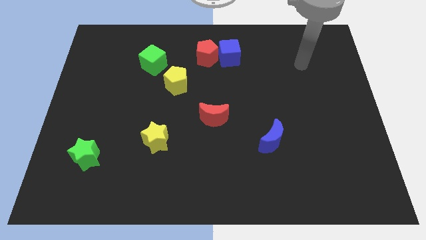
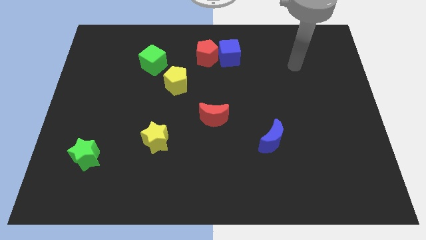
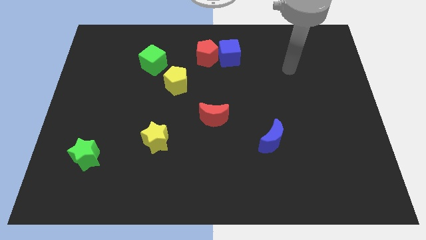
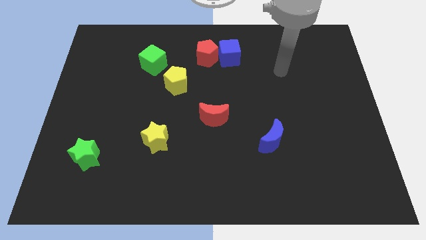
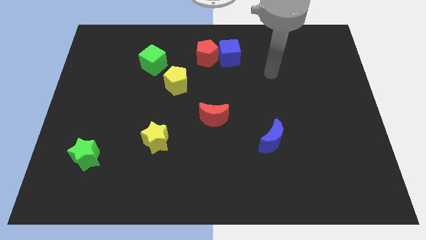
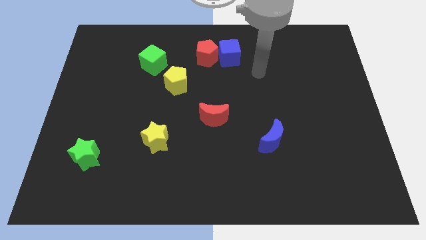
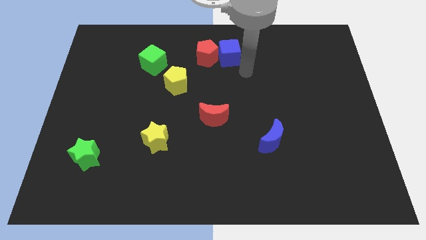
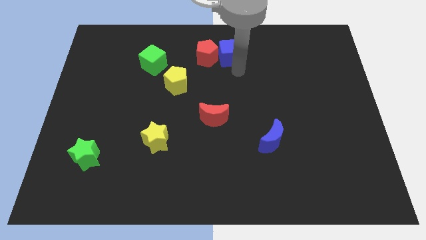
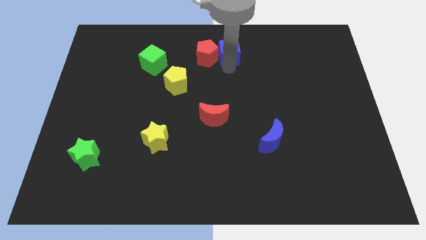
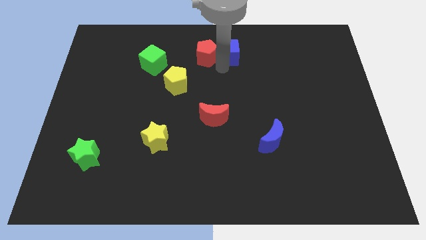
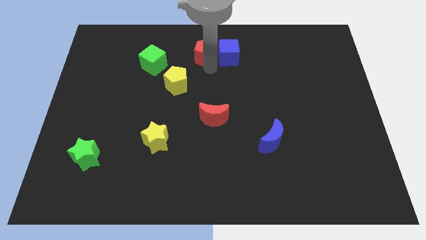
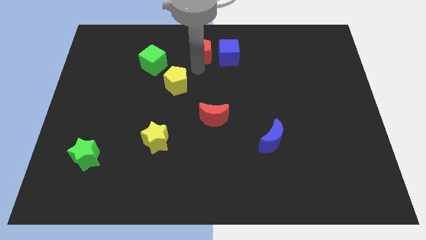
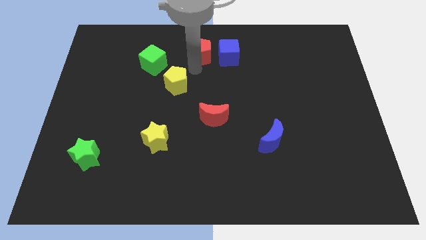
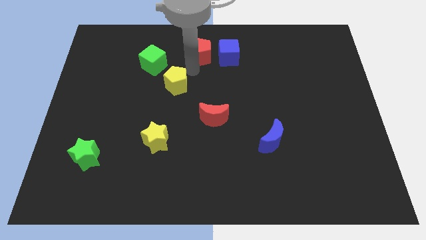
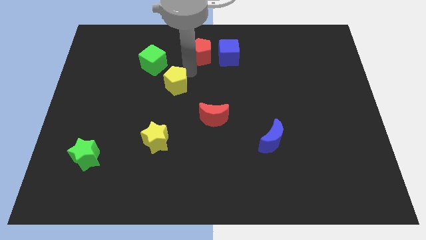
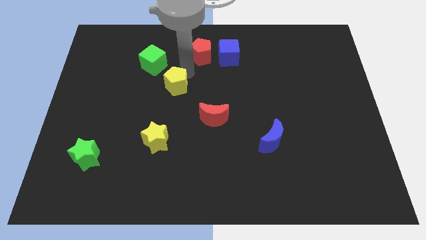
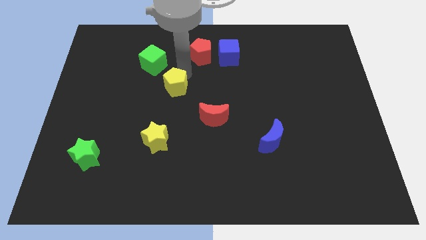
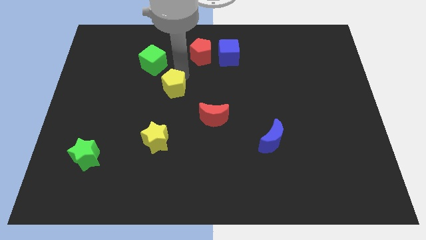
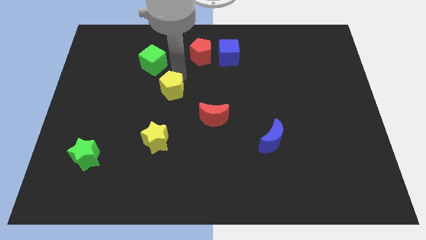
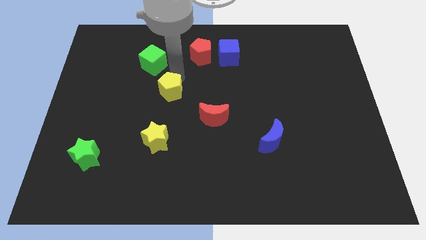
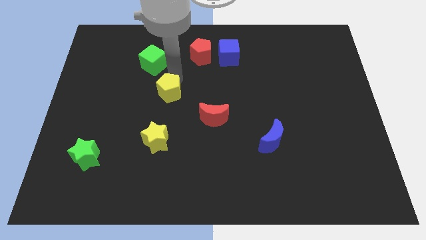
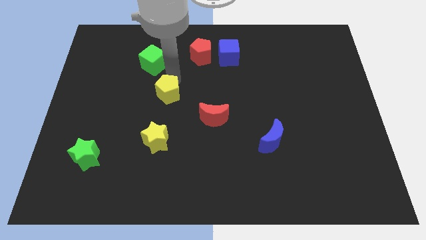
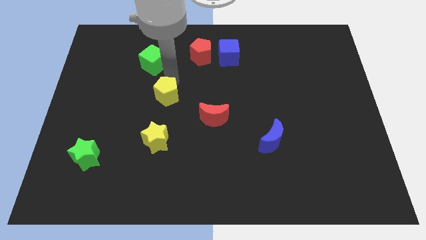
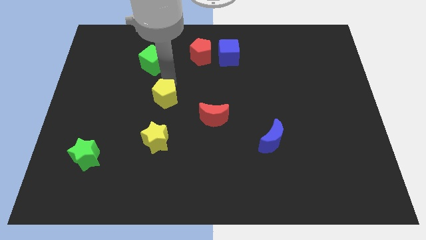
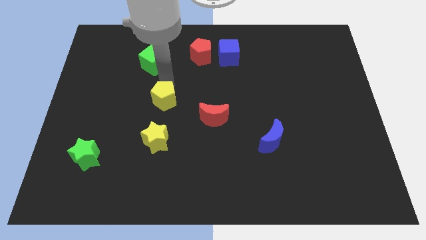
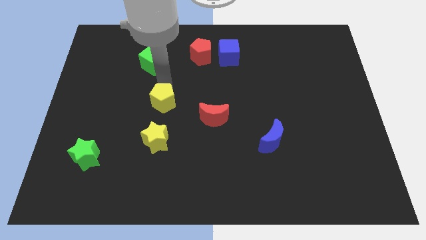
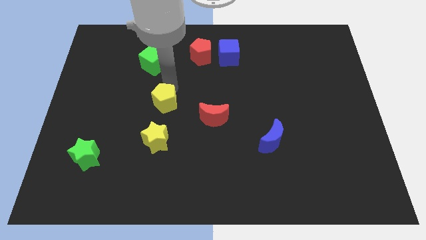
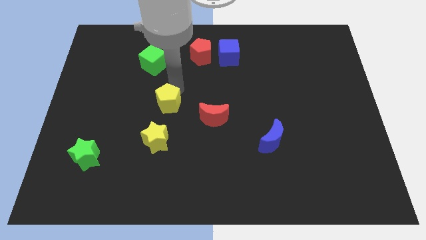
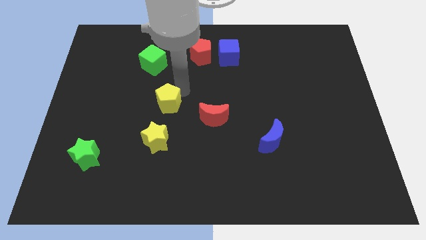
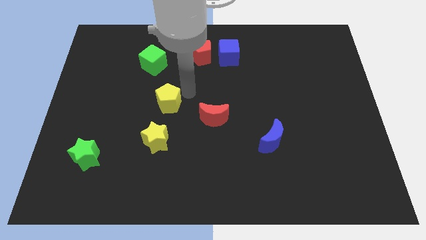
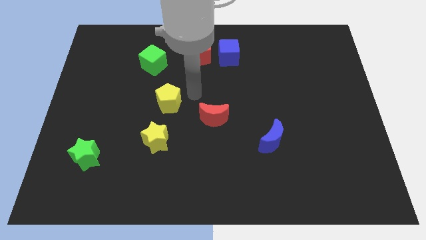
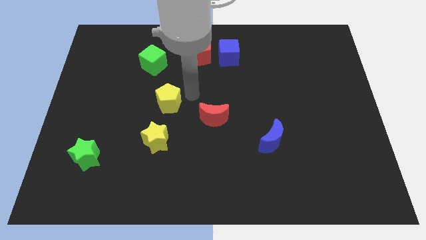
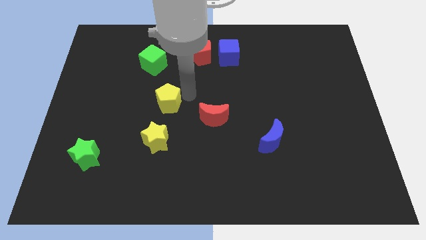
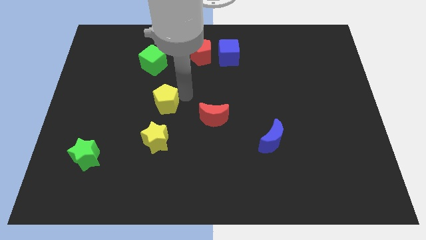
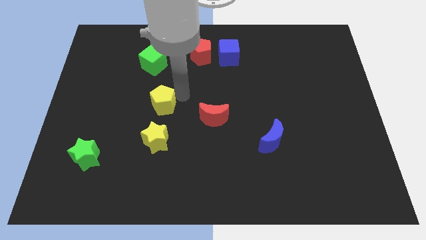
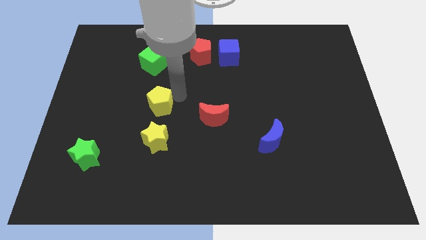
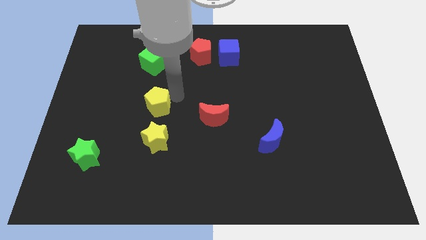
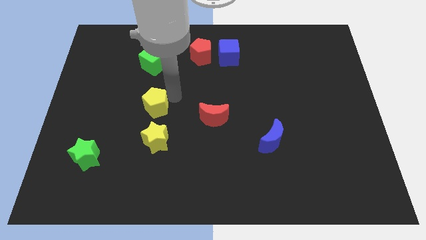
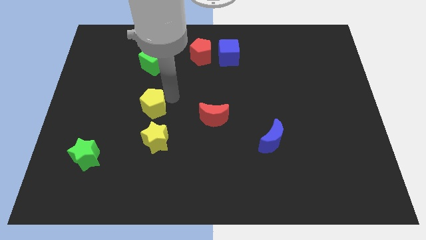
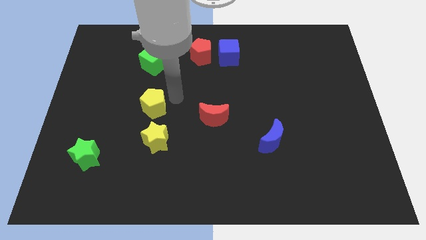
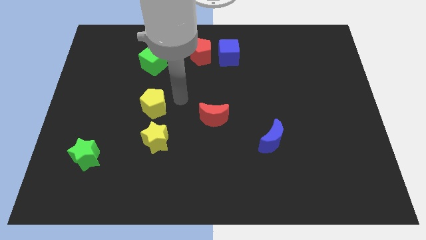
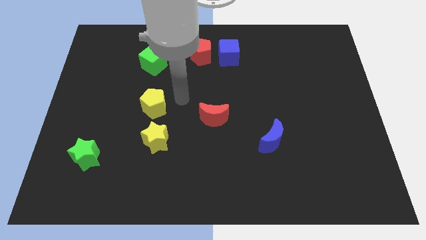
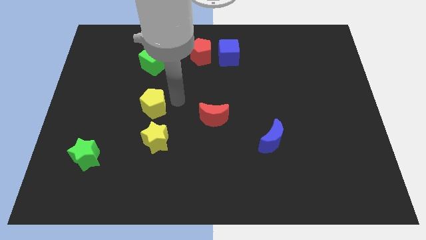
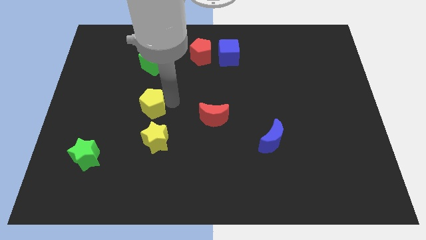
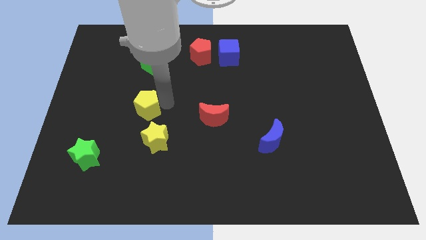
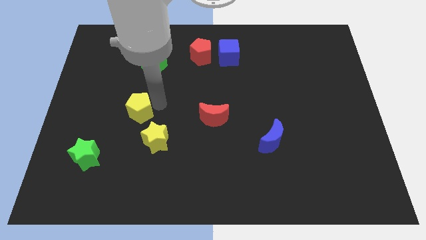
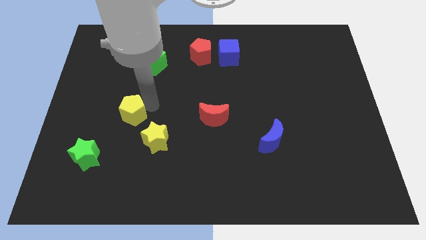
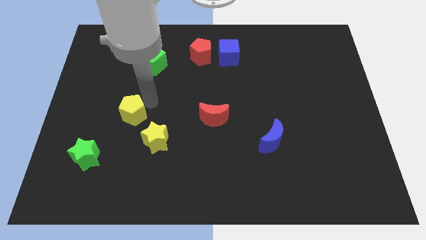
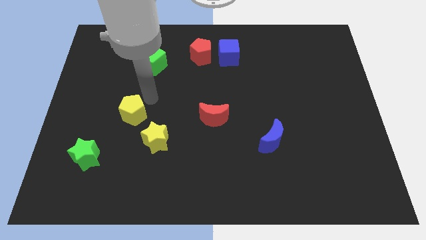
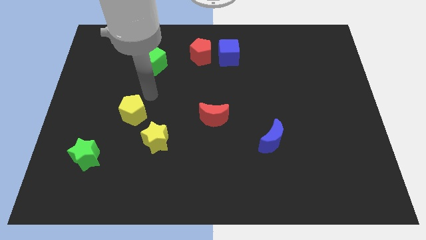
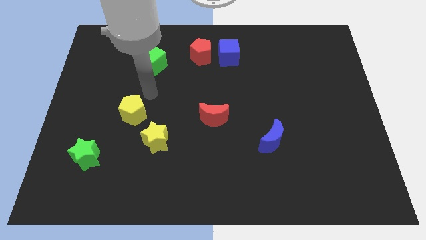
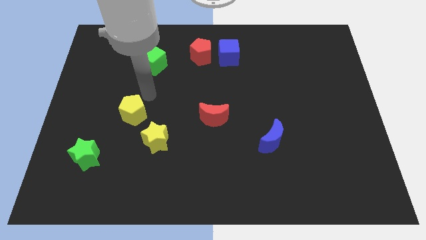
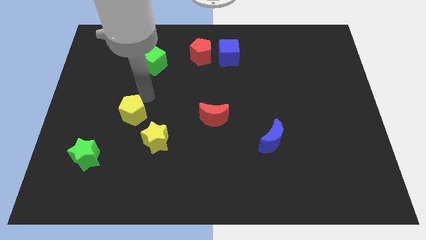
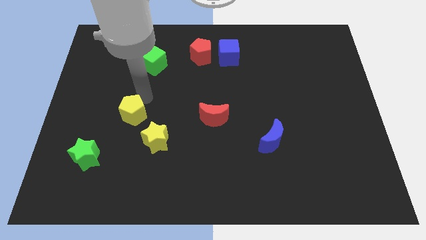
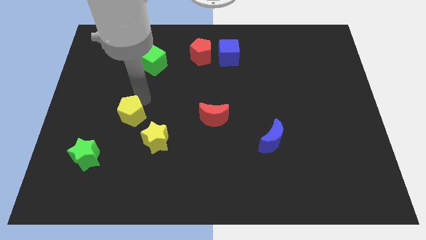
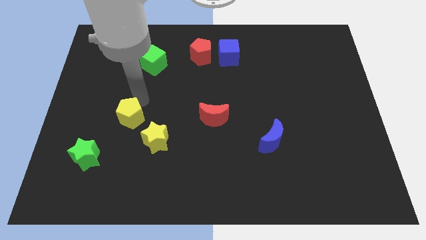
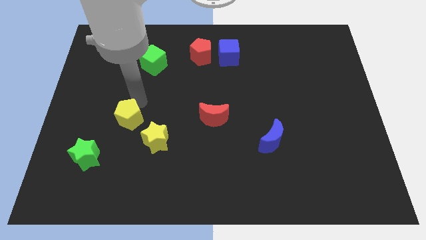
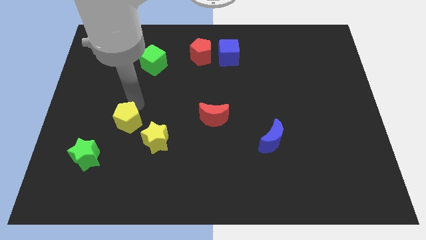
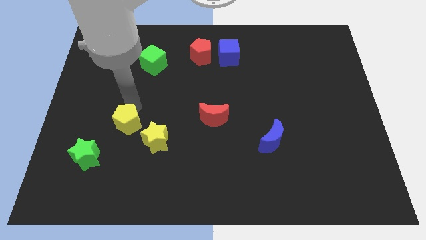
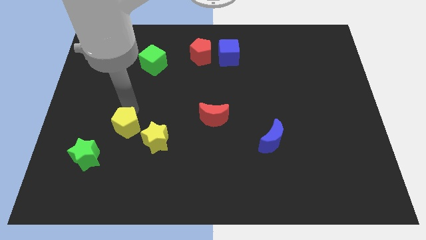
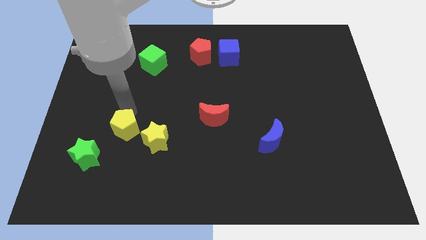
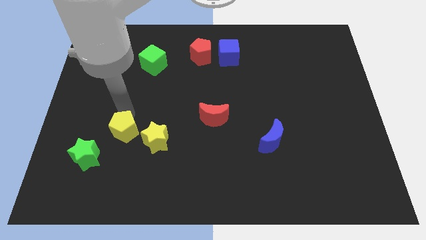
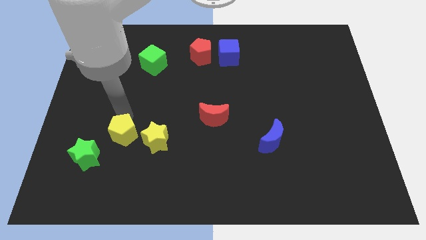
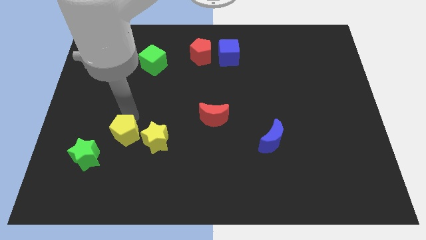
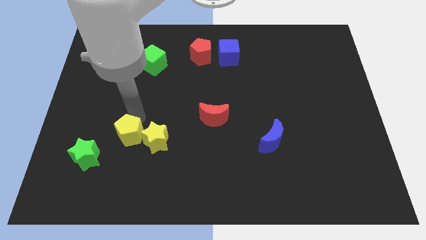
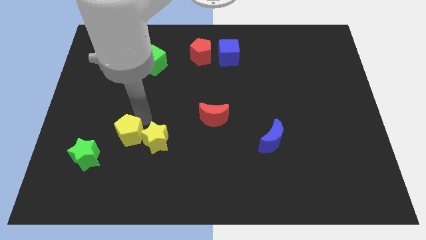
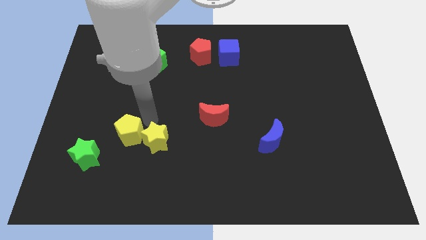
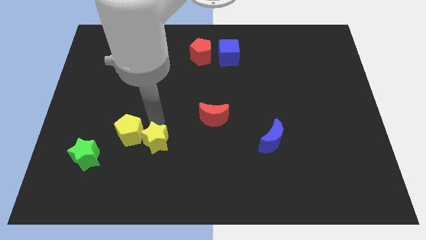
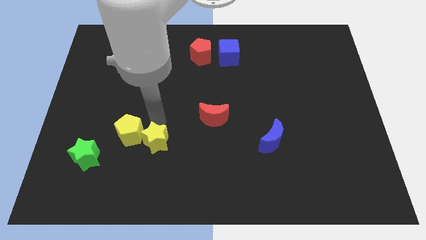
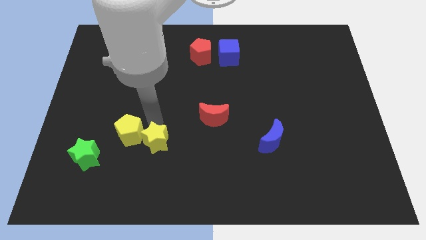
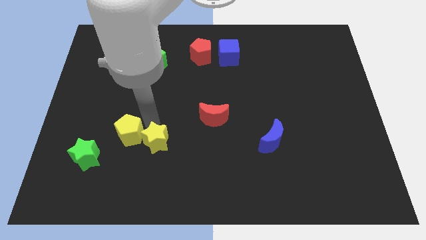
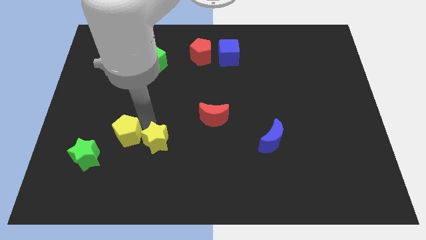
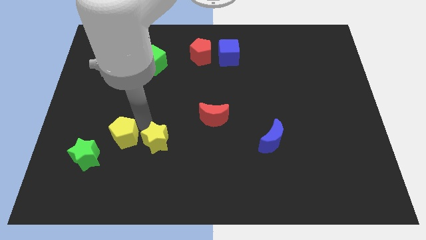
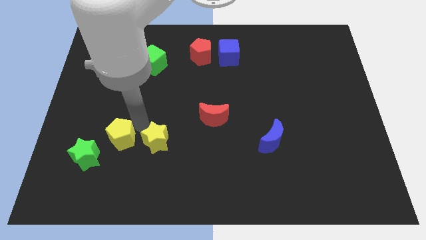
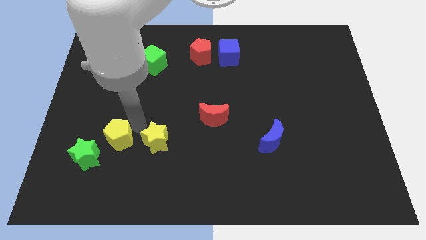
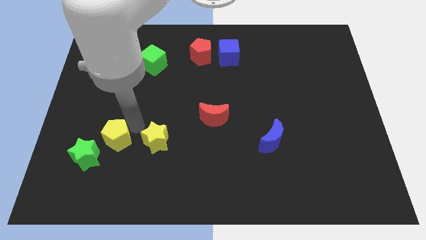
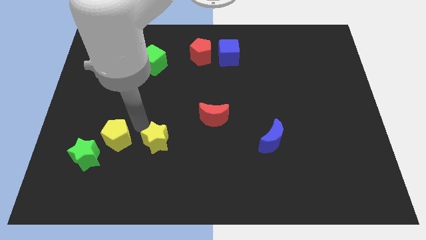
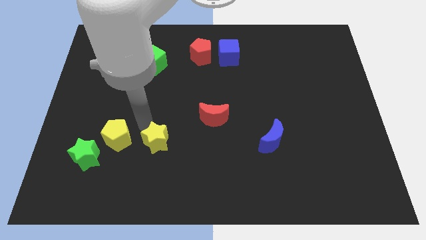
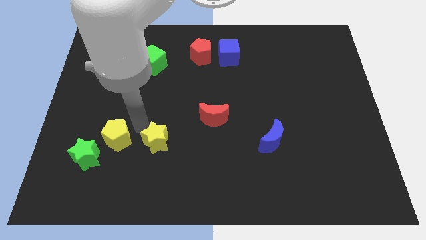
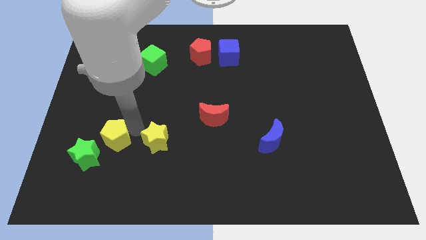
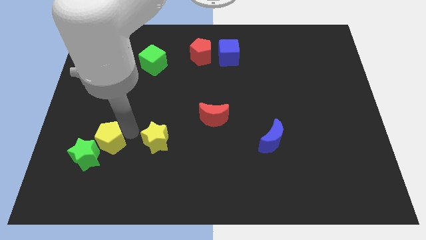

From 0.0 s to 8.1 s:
move the yellow pentagon to the green star
